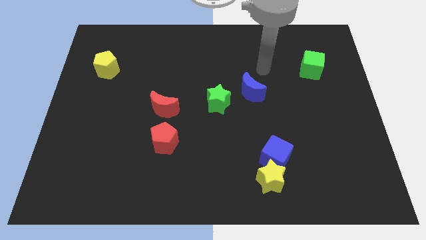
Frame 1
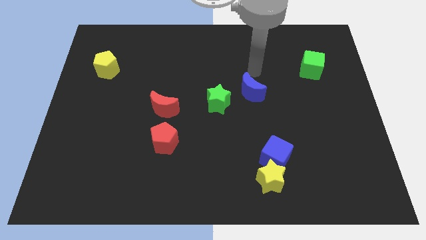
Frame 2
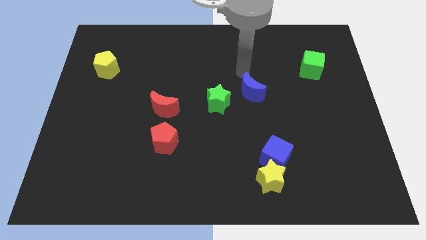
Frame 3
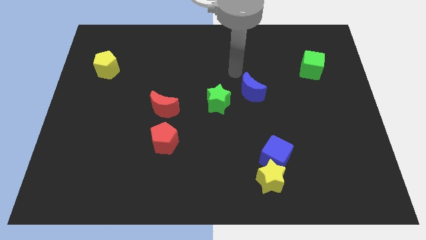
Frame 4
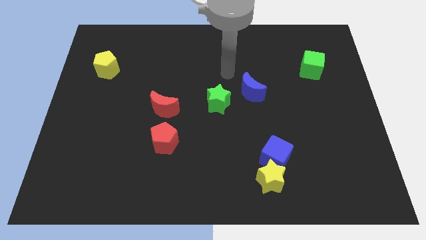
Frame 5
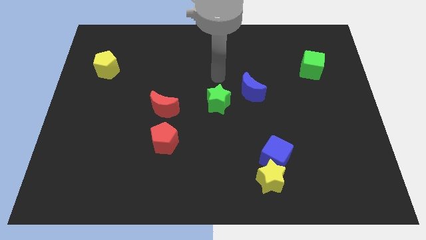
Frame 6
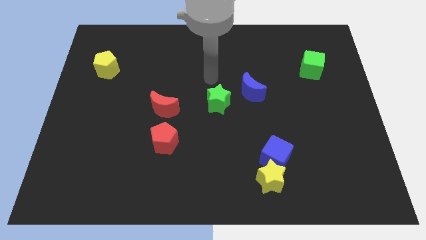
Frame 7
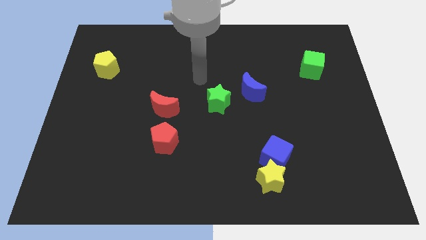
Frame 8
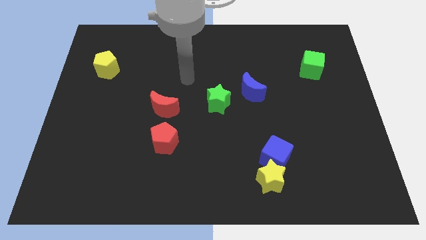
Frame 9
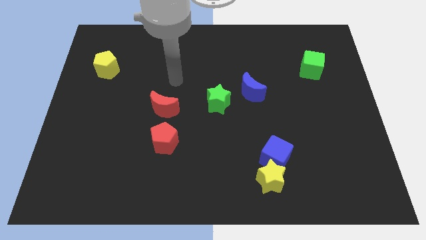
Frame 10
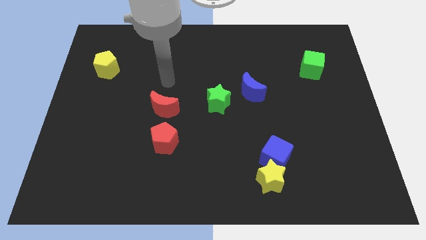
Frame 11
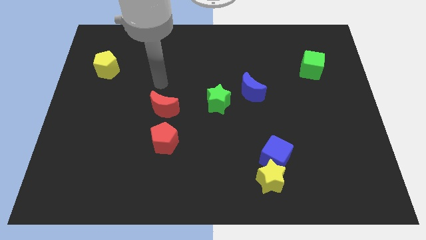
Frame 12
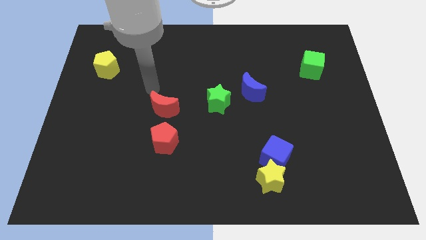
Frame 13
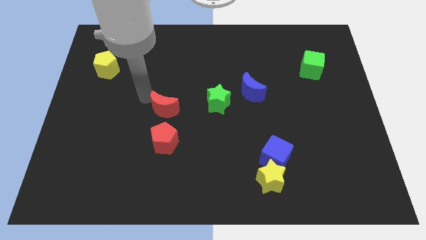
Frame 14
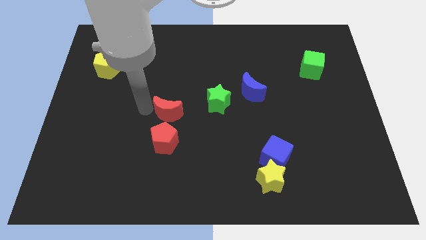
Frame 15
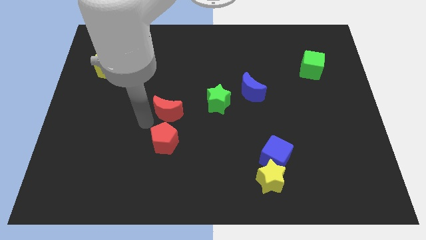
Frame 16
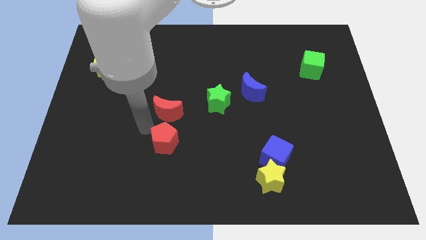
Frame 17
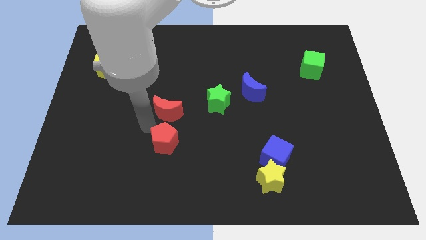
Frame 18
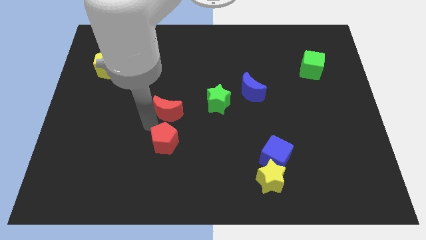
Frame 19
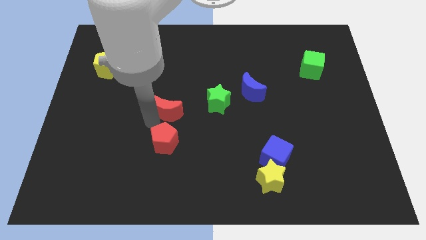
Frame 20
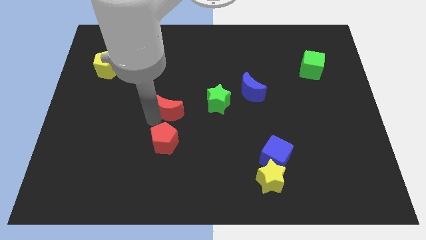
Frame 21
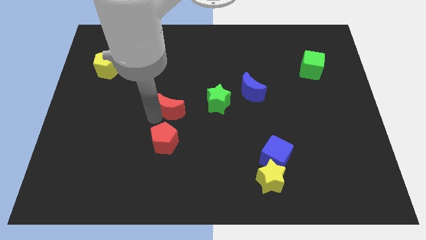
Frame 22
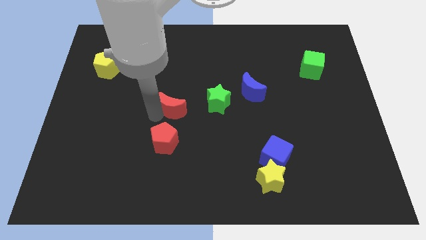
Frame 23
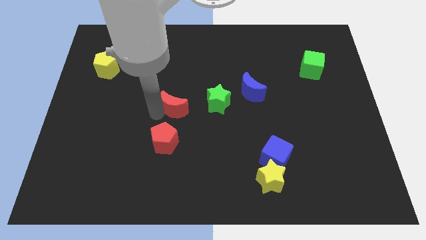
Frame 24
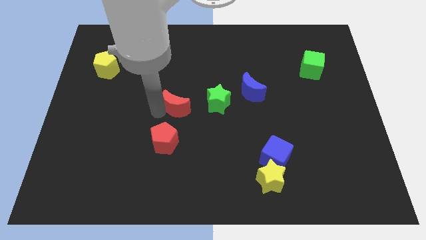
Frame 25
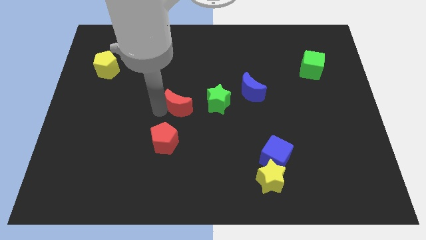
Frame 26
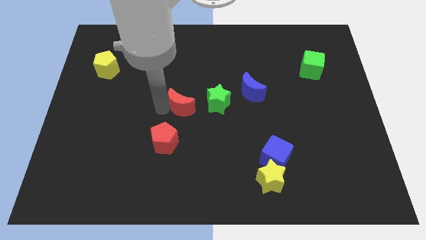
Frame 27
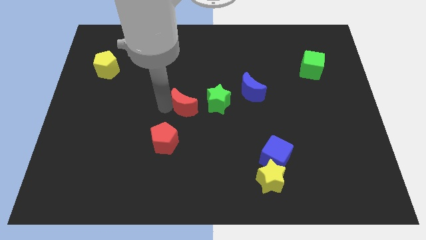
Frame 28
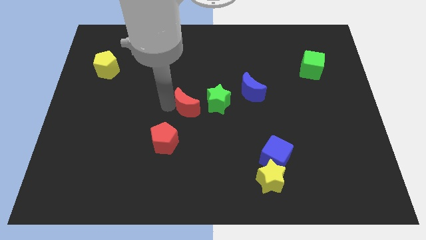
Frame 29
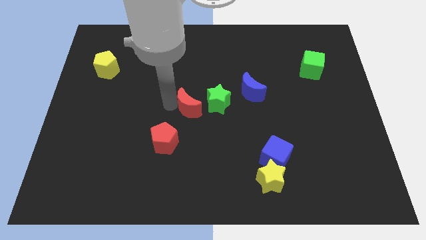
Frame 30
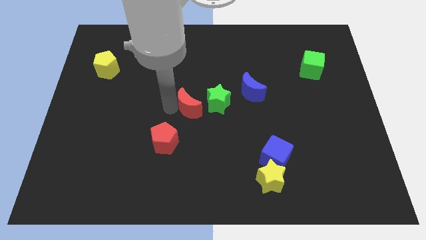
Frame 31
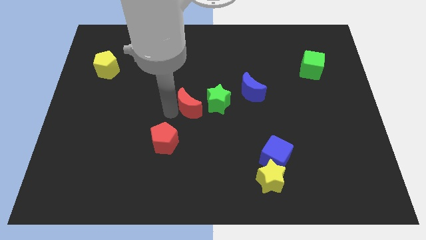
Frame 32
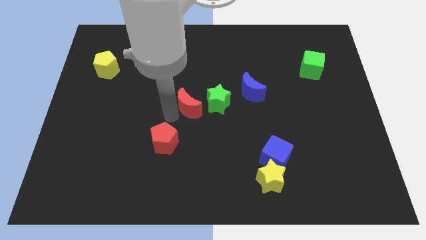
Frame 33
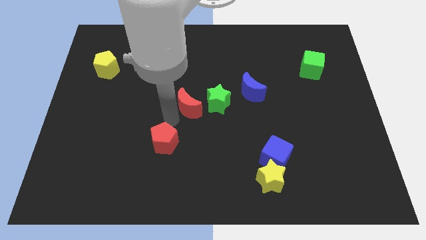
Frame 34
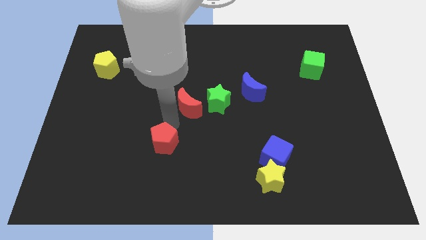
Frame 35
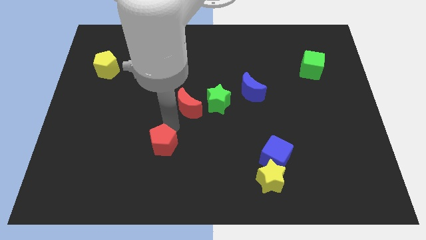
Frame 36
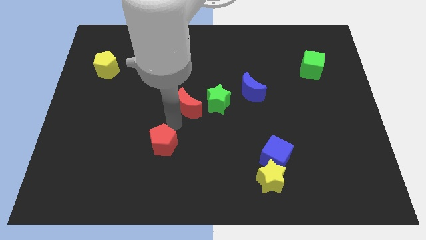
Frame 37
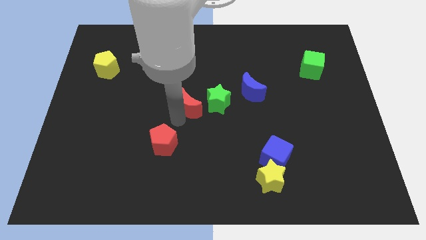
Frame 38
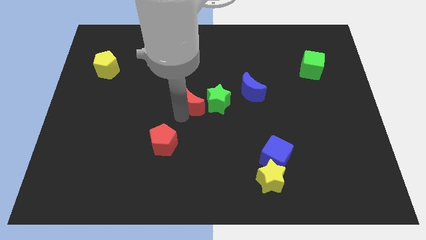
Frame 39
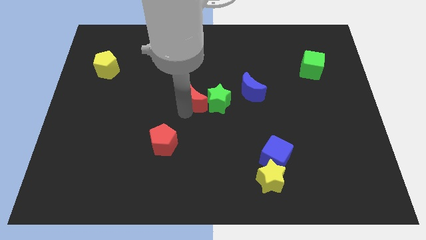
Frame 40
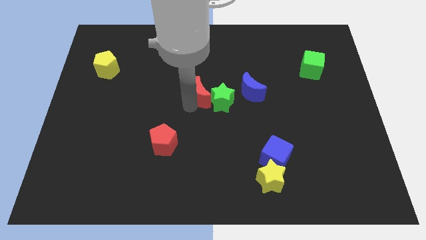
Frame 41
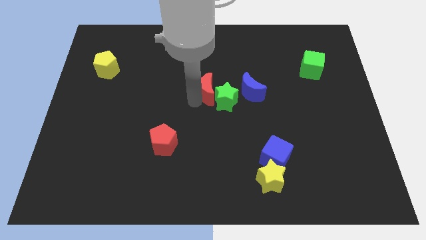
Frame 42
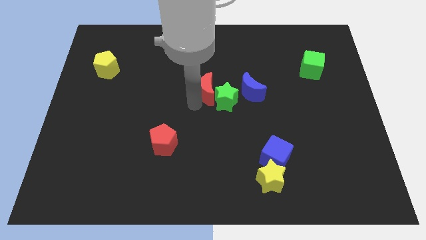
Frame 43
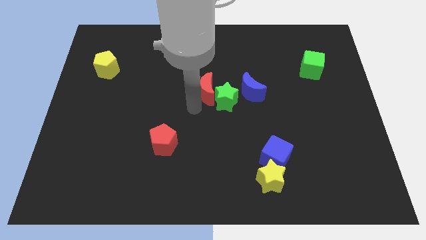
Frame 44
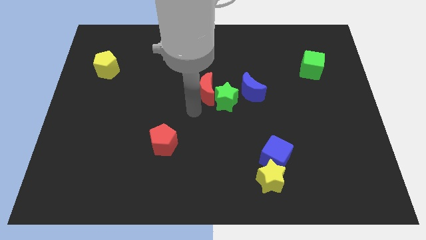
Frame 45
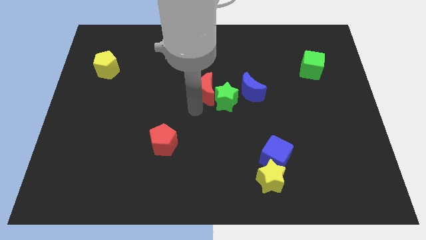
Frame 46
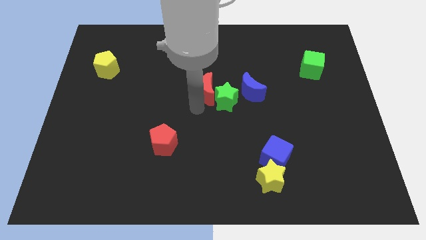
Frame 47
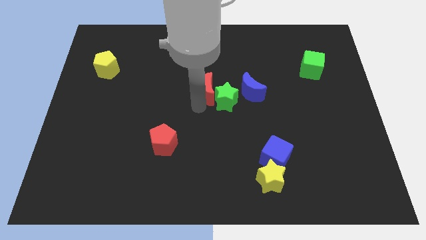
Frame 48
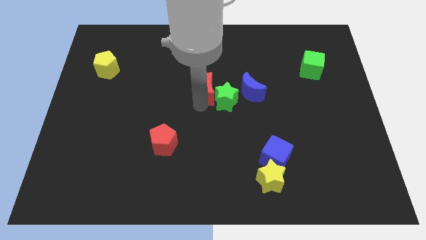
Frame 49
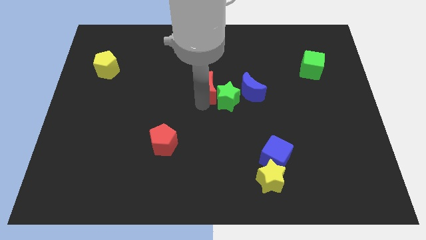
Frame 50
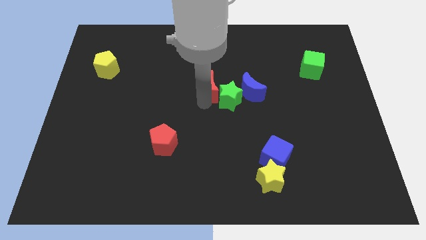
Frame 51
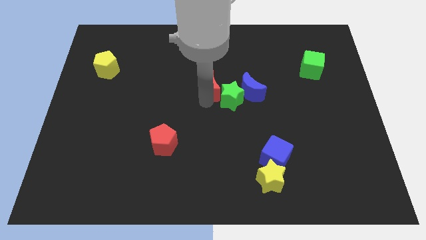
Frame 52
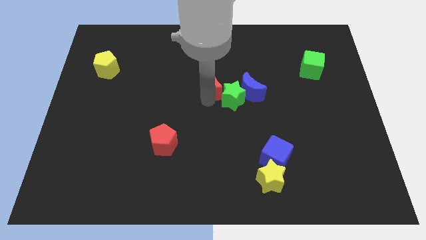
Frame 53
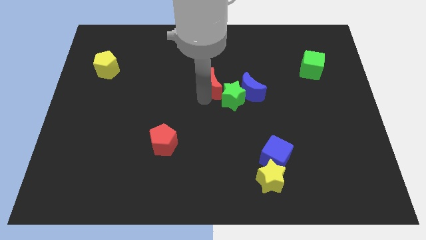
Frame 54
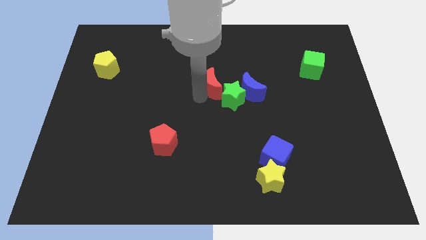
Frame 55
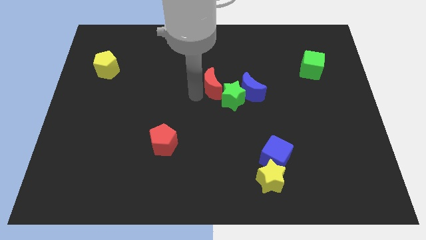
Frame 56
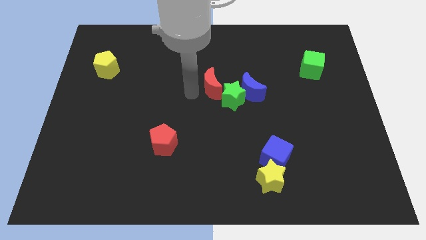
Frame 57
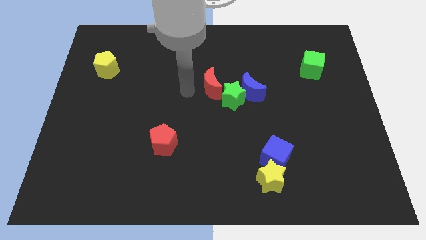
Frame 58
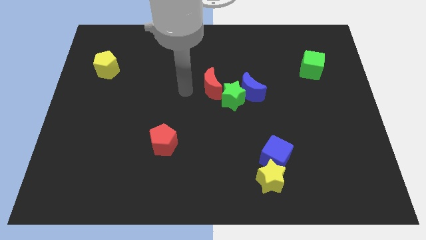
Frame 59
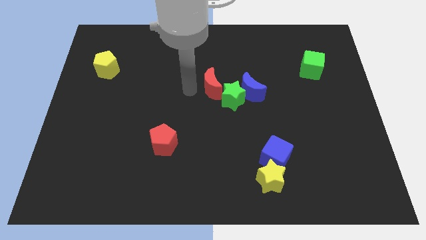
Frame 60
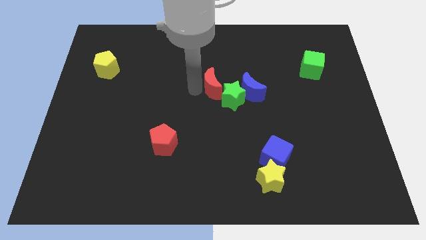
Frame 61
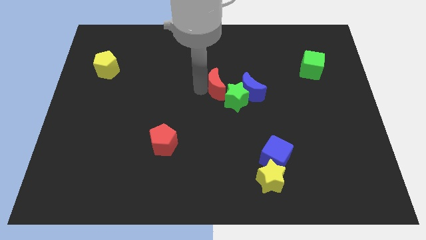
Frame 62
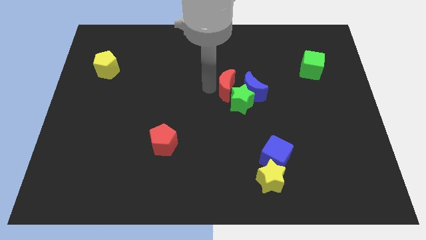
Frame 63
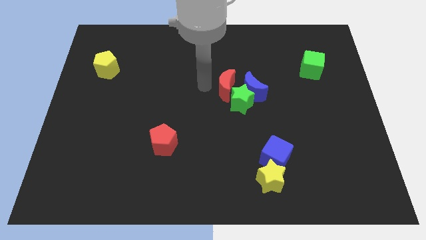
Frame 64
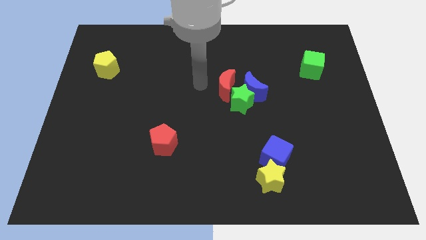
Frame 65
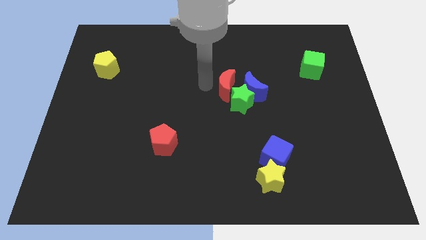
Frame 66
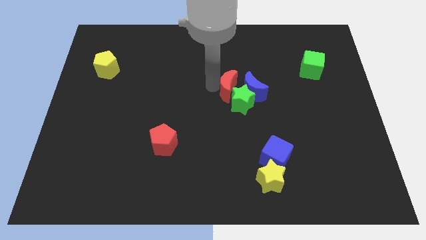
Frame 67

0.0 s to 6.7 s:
move the red moon to the blue moon

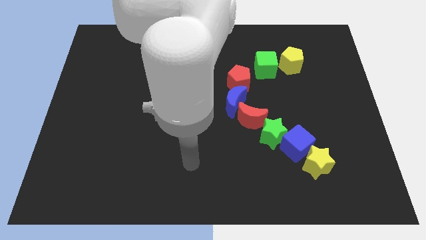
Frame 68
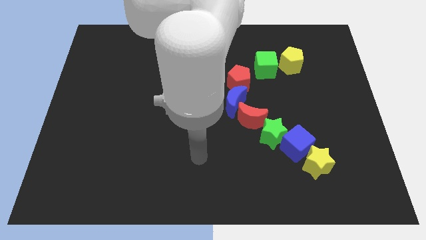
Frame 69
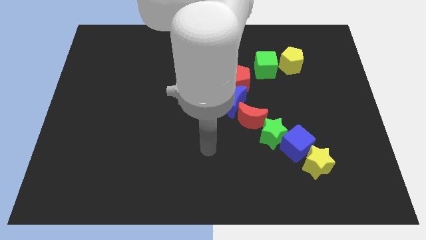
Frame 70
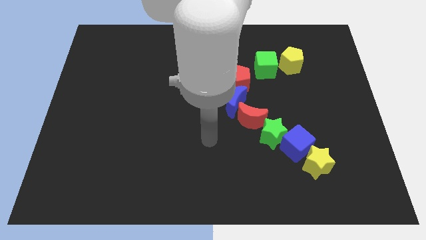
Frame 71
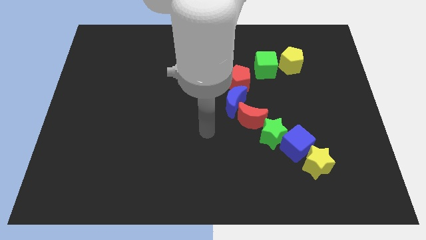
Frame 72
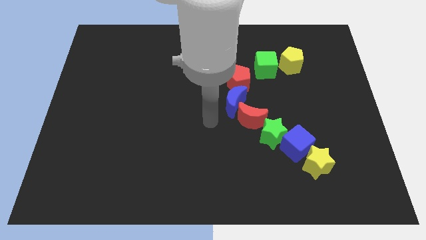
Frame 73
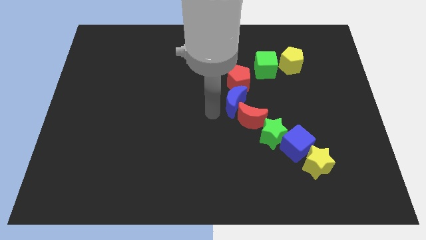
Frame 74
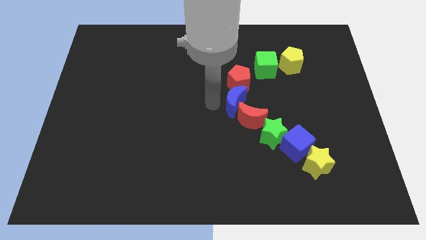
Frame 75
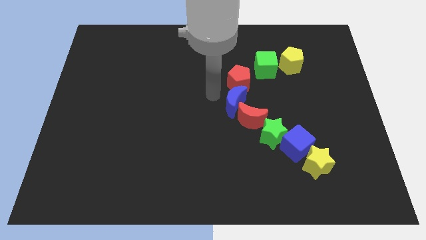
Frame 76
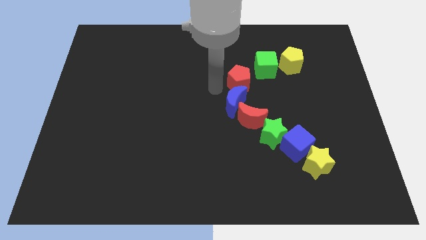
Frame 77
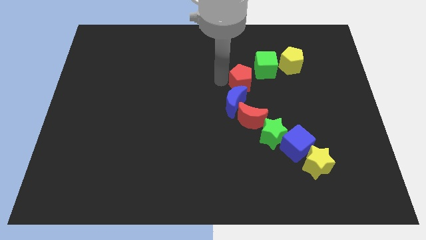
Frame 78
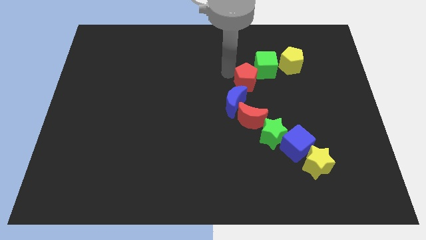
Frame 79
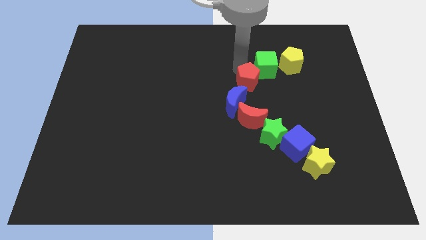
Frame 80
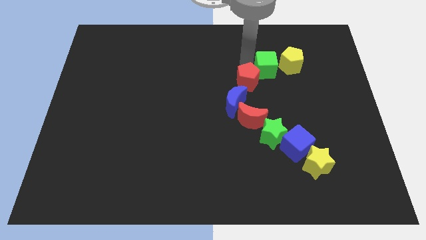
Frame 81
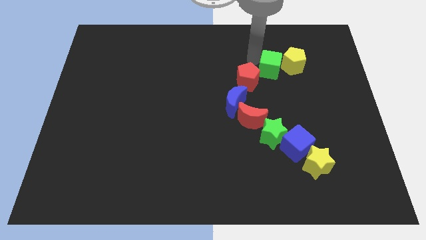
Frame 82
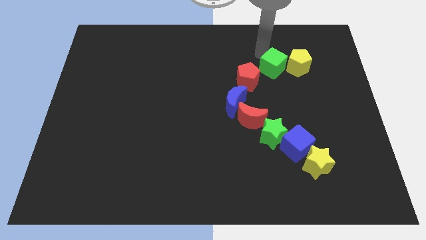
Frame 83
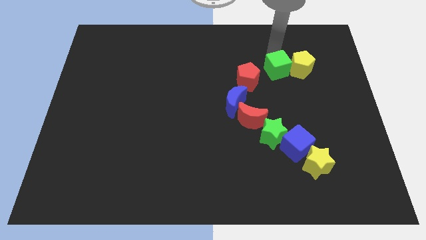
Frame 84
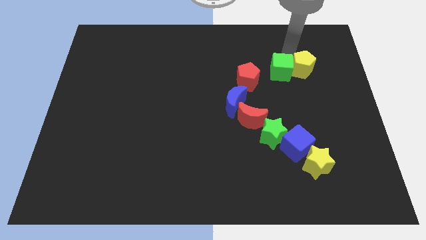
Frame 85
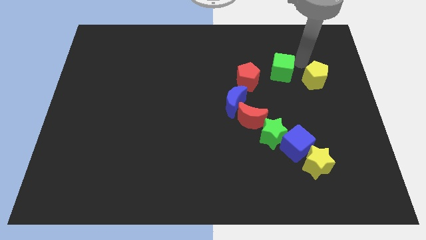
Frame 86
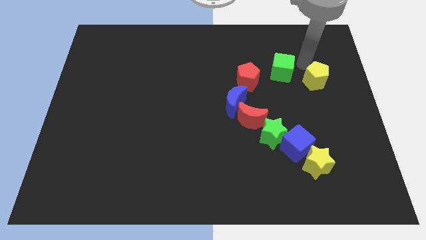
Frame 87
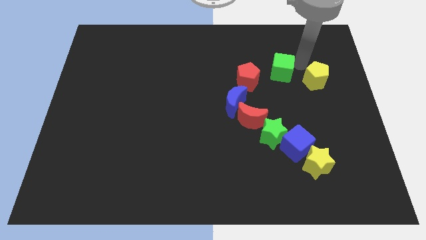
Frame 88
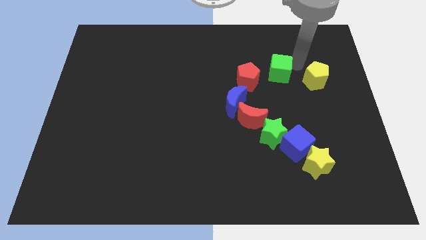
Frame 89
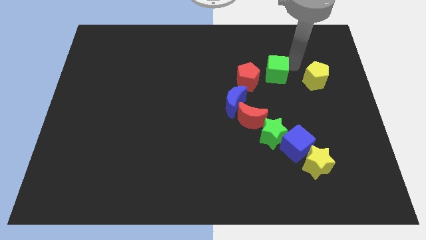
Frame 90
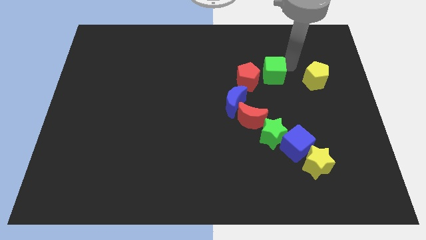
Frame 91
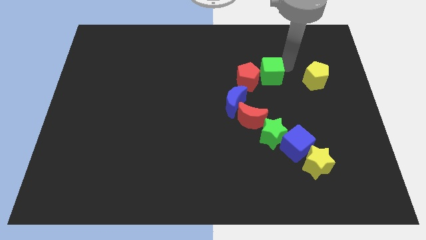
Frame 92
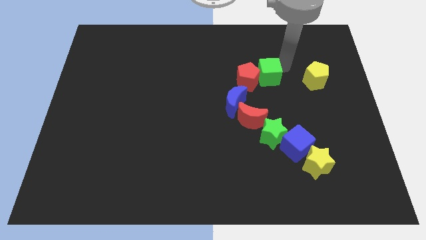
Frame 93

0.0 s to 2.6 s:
put the green cube close to the red pentagon
